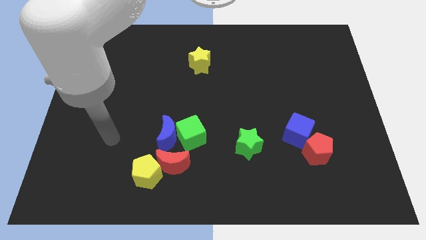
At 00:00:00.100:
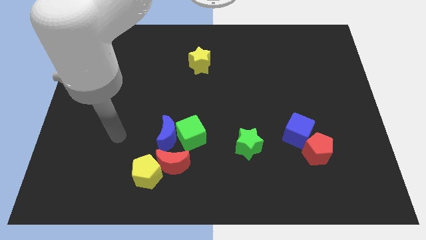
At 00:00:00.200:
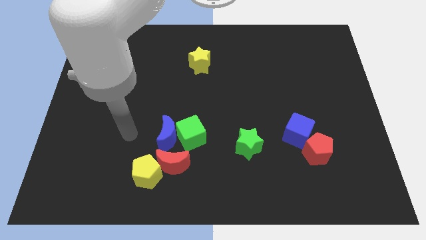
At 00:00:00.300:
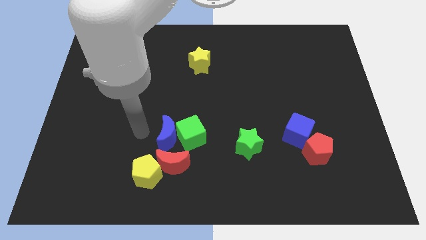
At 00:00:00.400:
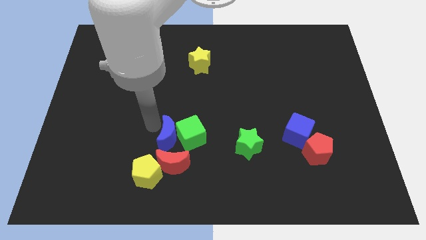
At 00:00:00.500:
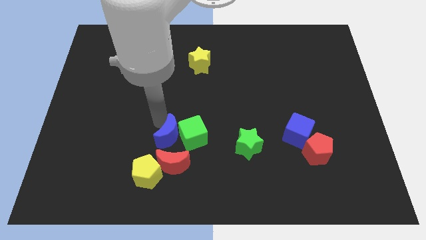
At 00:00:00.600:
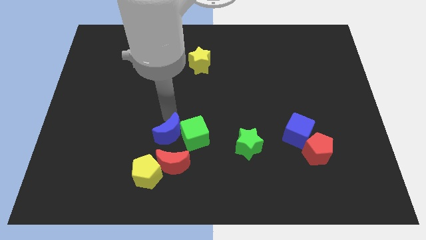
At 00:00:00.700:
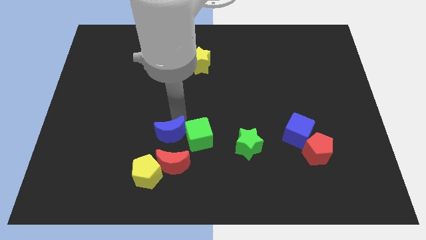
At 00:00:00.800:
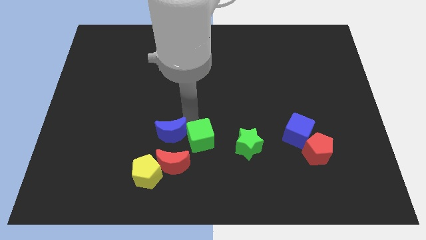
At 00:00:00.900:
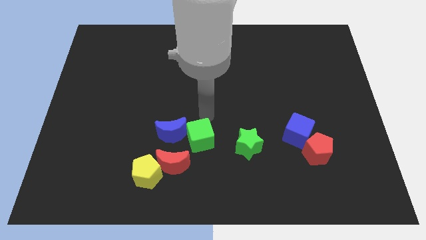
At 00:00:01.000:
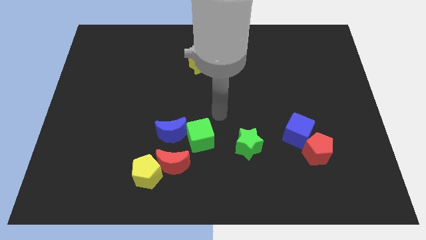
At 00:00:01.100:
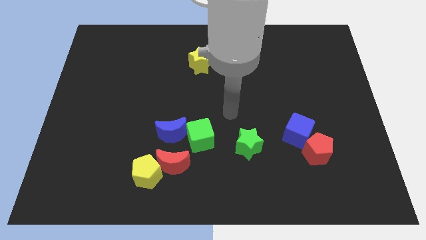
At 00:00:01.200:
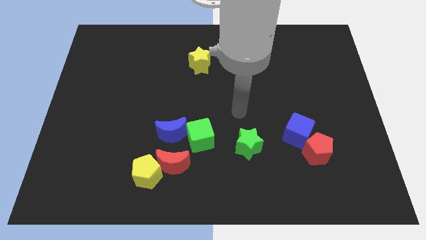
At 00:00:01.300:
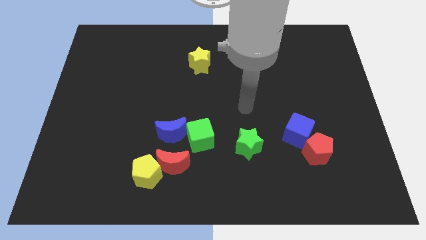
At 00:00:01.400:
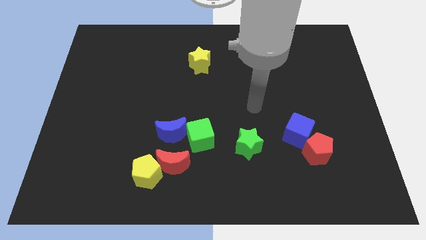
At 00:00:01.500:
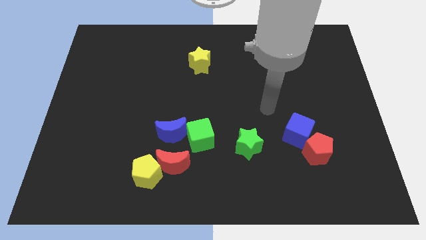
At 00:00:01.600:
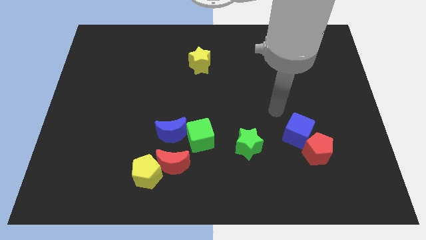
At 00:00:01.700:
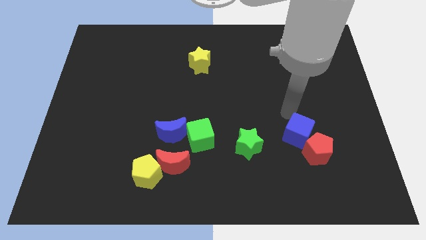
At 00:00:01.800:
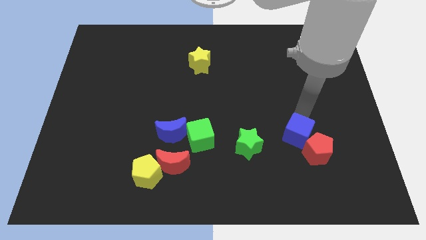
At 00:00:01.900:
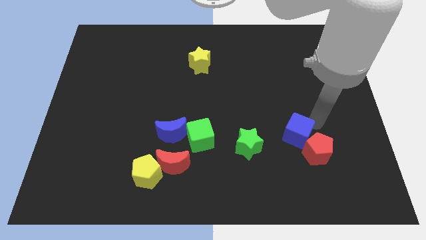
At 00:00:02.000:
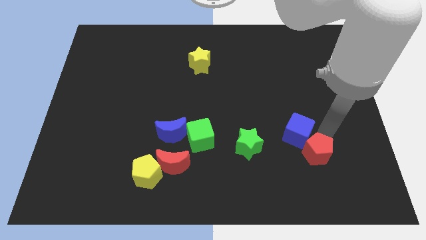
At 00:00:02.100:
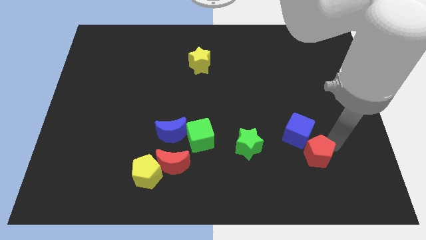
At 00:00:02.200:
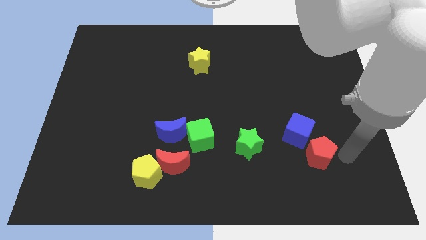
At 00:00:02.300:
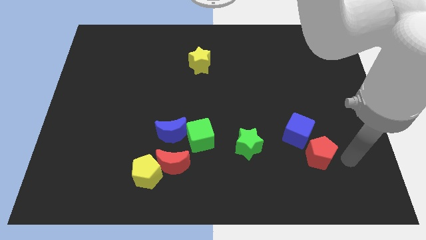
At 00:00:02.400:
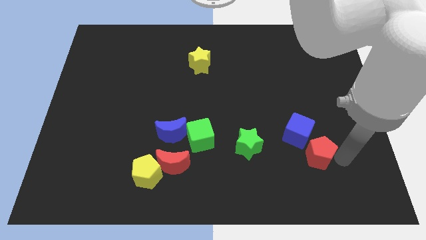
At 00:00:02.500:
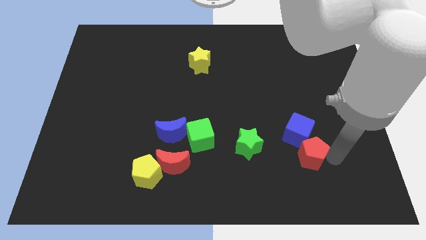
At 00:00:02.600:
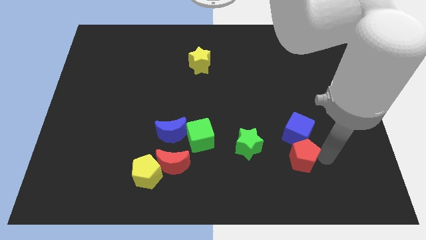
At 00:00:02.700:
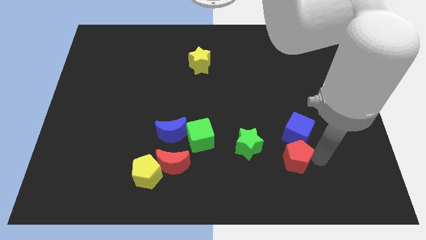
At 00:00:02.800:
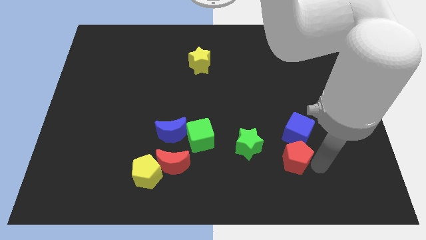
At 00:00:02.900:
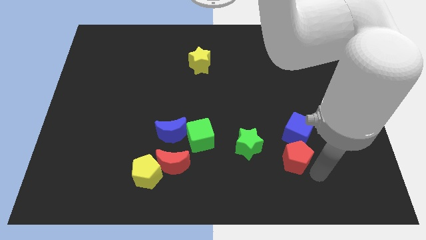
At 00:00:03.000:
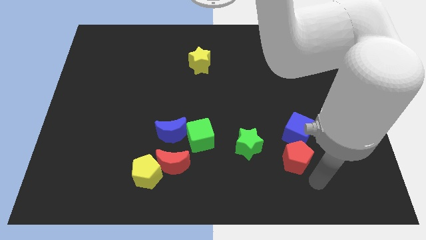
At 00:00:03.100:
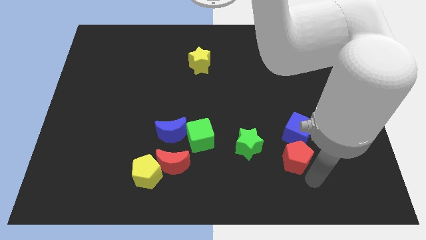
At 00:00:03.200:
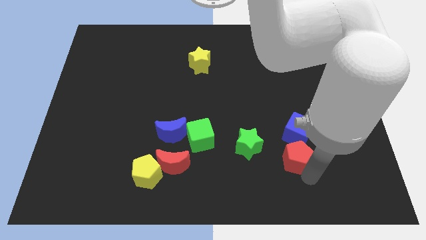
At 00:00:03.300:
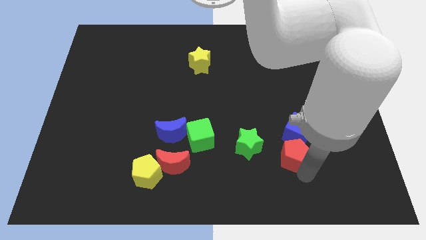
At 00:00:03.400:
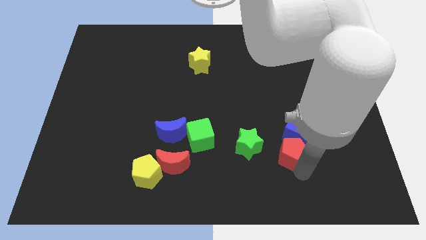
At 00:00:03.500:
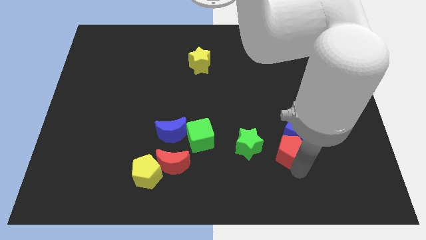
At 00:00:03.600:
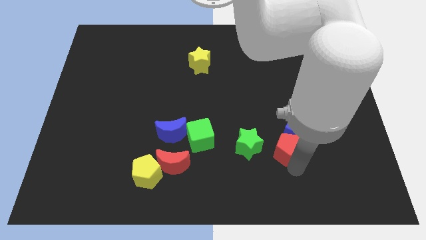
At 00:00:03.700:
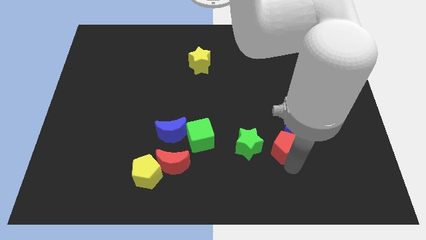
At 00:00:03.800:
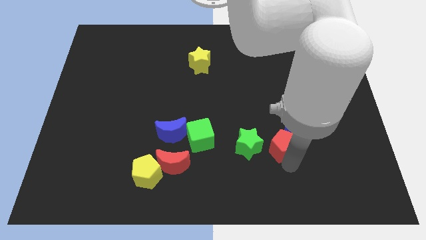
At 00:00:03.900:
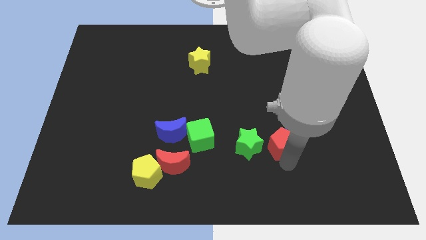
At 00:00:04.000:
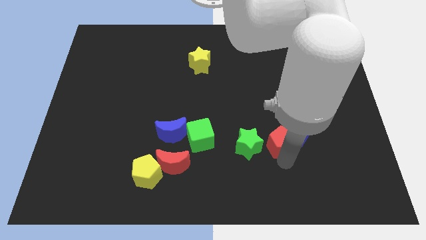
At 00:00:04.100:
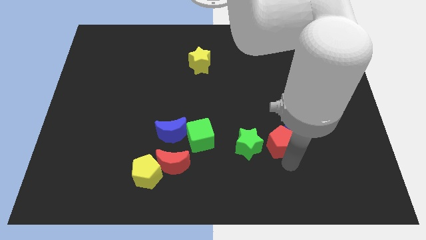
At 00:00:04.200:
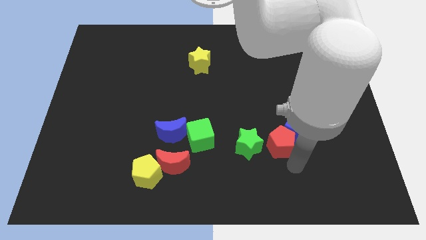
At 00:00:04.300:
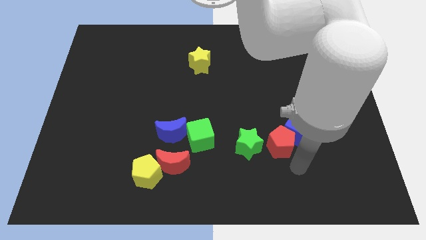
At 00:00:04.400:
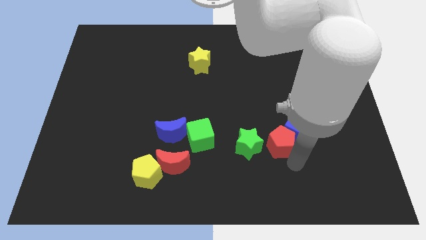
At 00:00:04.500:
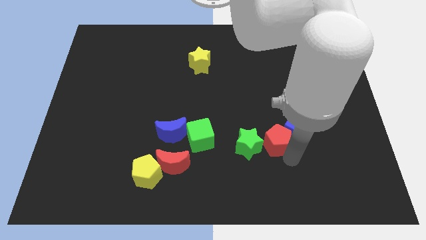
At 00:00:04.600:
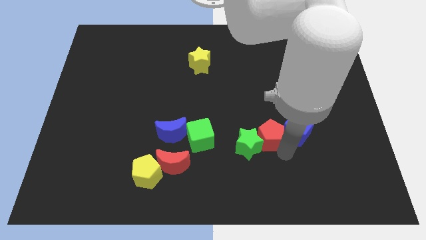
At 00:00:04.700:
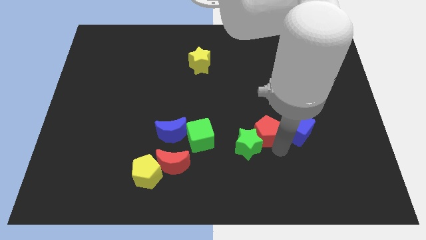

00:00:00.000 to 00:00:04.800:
push the red pentagon to the top of the green star

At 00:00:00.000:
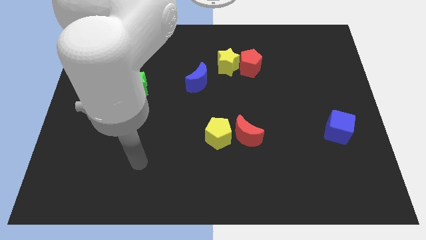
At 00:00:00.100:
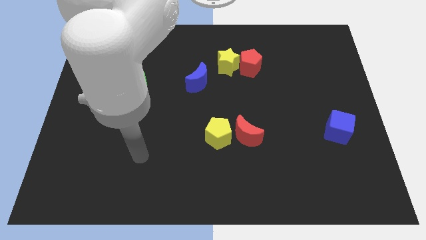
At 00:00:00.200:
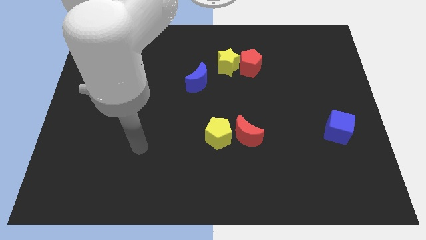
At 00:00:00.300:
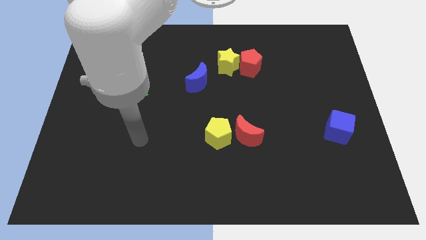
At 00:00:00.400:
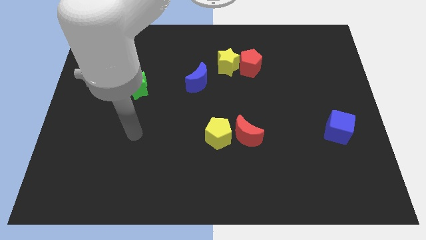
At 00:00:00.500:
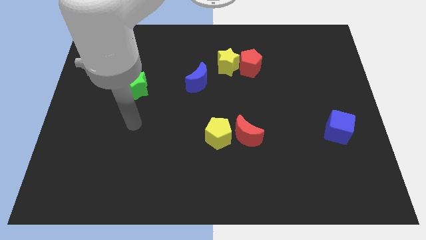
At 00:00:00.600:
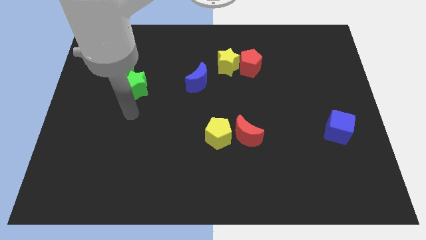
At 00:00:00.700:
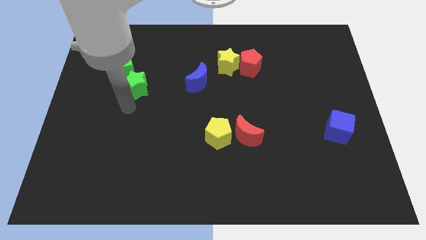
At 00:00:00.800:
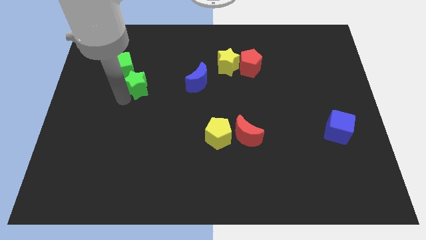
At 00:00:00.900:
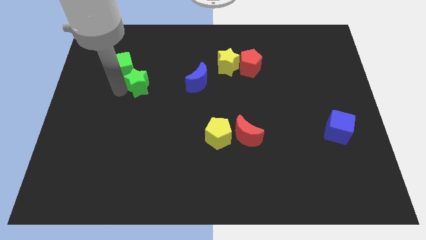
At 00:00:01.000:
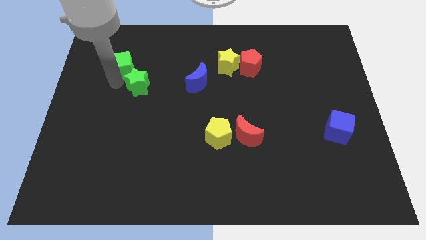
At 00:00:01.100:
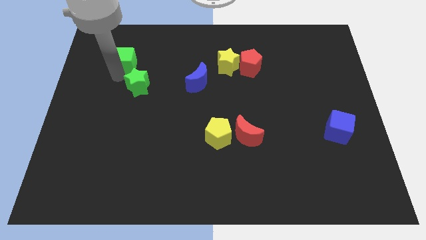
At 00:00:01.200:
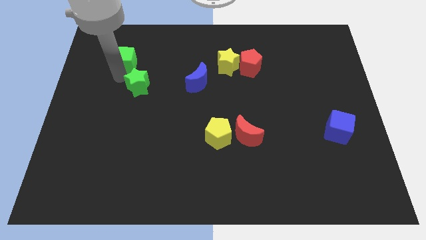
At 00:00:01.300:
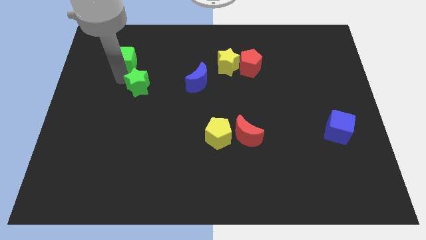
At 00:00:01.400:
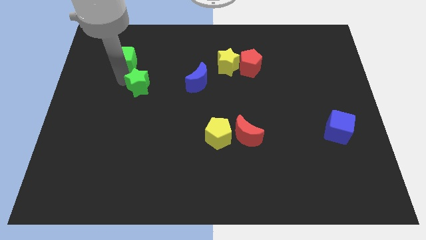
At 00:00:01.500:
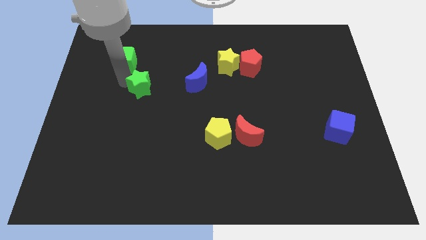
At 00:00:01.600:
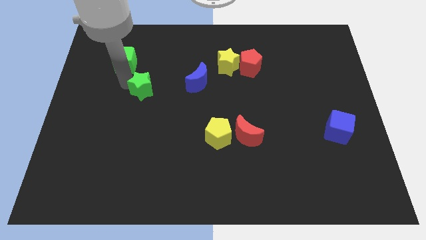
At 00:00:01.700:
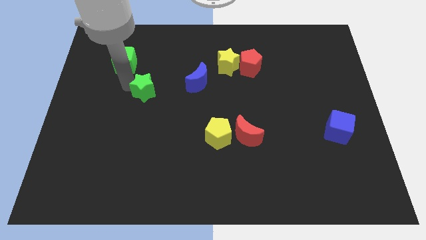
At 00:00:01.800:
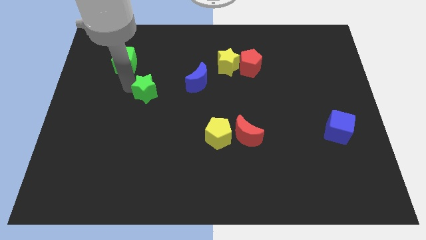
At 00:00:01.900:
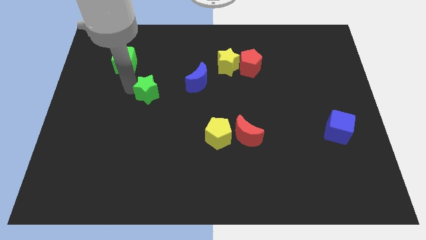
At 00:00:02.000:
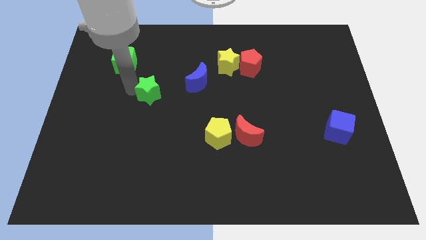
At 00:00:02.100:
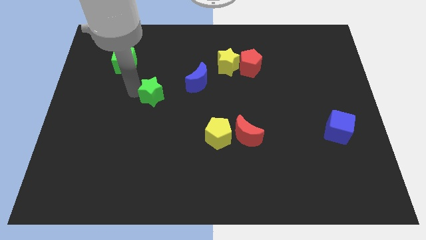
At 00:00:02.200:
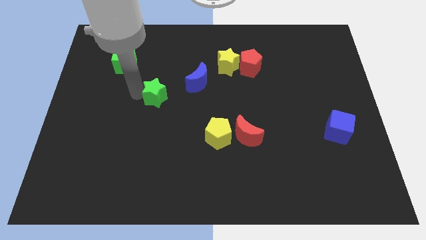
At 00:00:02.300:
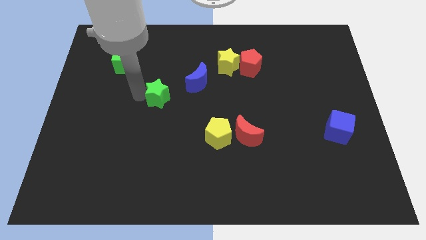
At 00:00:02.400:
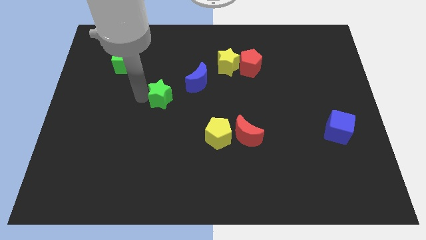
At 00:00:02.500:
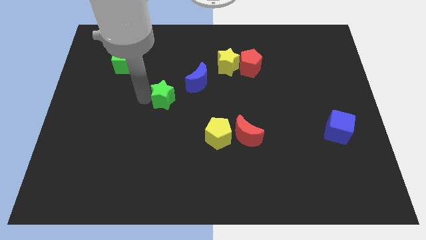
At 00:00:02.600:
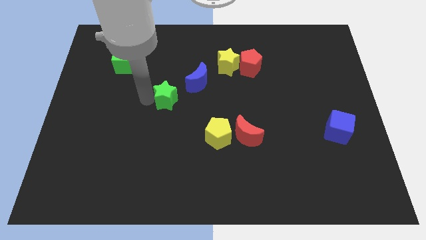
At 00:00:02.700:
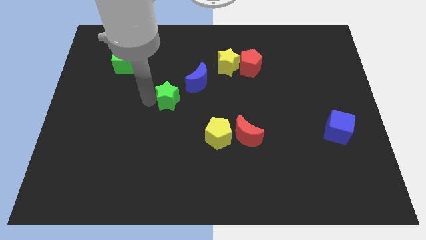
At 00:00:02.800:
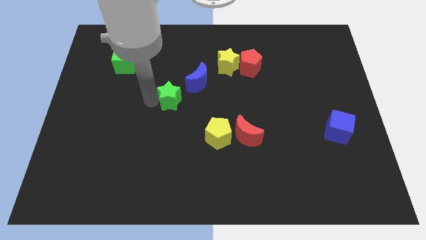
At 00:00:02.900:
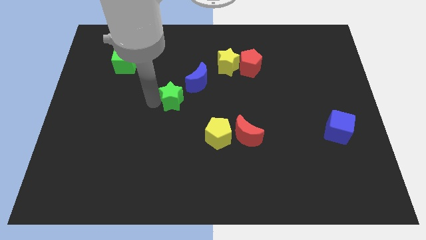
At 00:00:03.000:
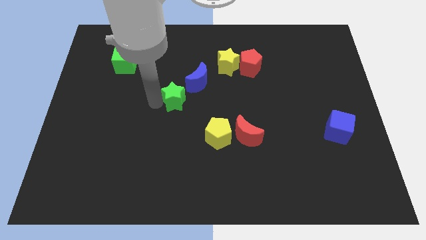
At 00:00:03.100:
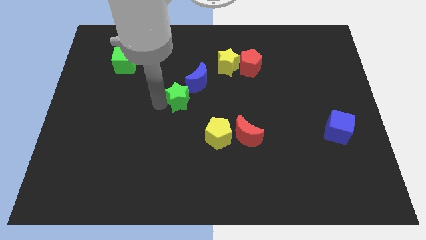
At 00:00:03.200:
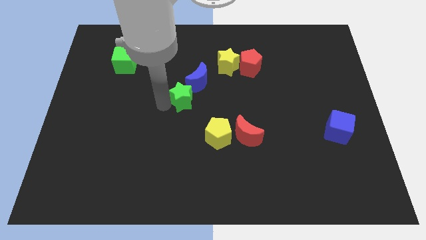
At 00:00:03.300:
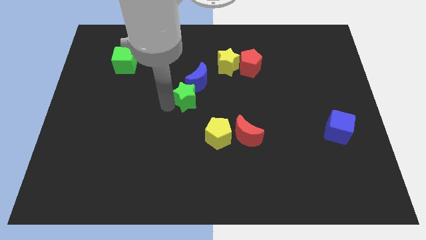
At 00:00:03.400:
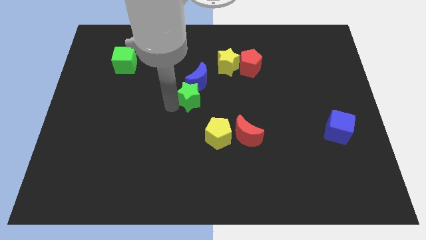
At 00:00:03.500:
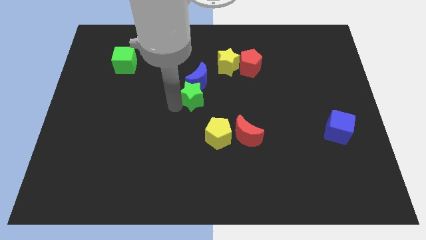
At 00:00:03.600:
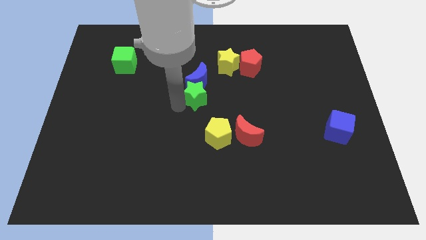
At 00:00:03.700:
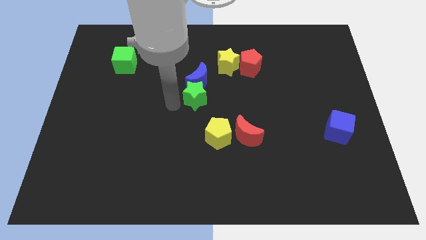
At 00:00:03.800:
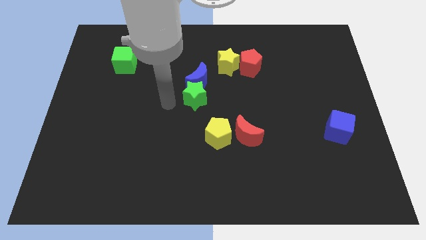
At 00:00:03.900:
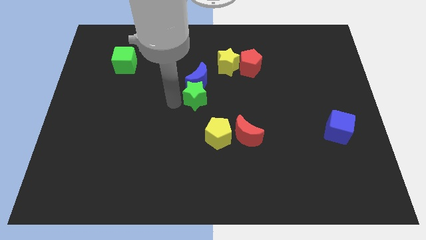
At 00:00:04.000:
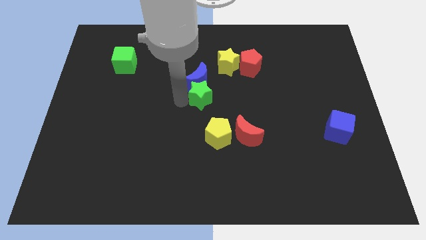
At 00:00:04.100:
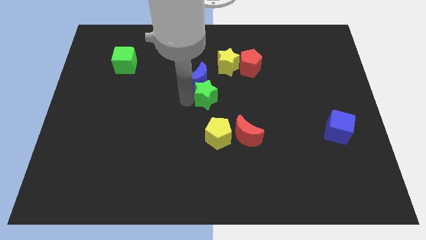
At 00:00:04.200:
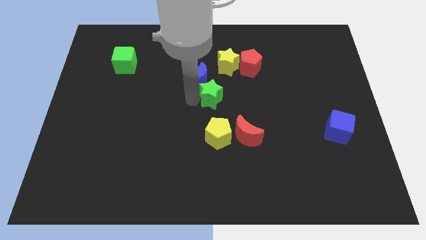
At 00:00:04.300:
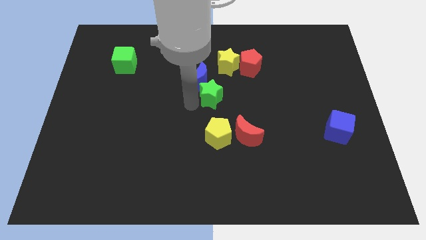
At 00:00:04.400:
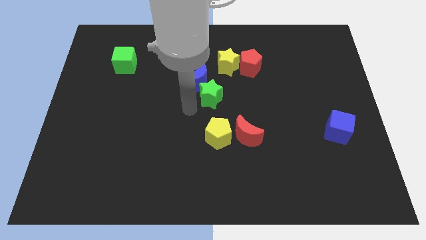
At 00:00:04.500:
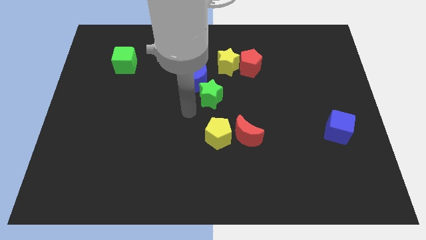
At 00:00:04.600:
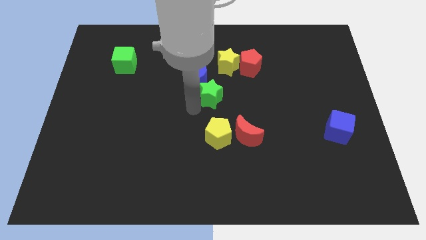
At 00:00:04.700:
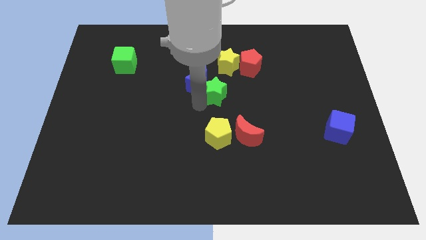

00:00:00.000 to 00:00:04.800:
put the green star to the right of the blue moon
